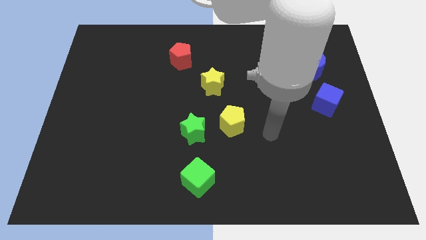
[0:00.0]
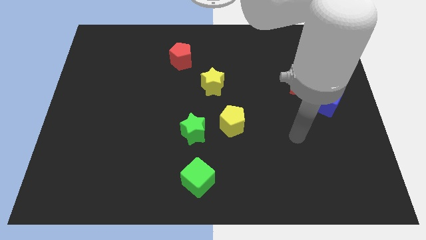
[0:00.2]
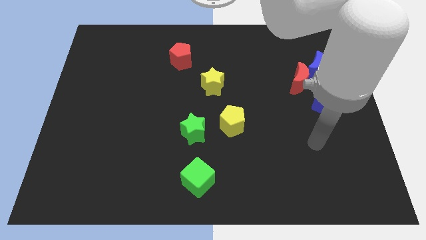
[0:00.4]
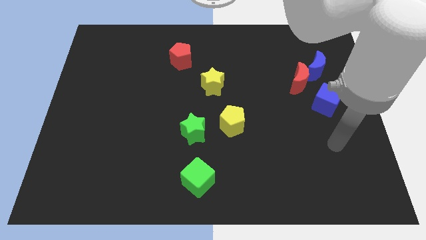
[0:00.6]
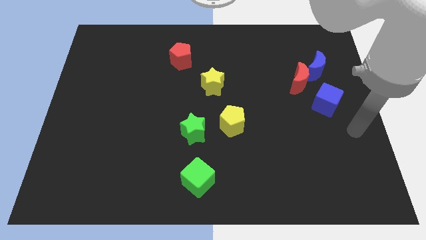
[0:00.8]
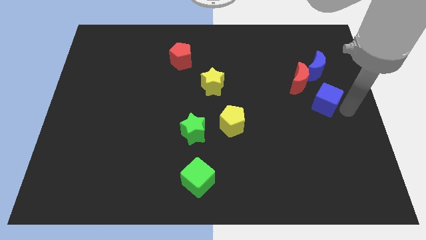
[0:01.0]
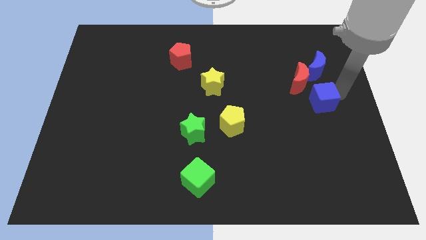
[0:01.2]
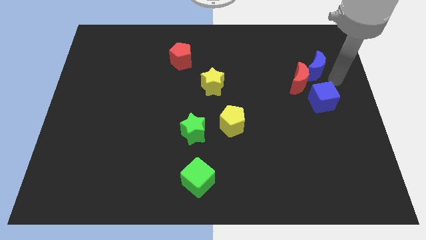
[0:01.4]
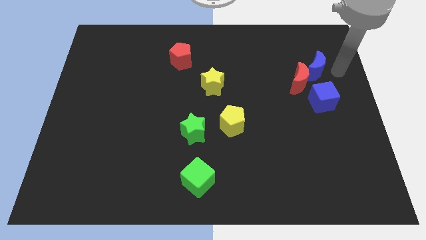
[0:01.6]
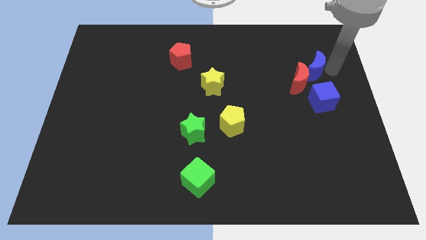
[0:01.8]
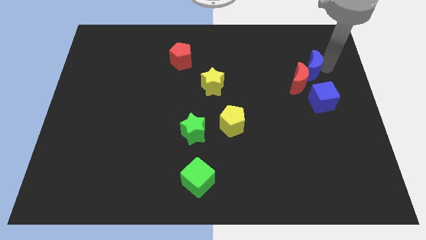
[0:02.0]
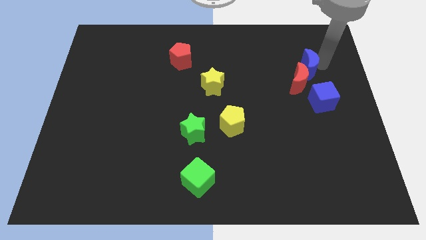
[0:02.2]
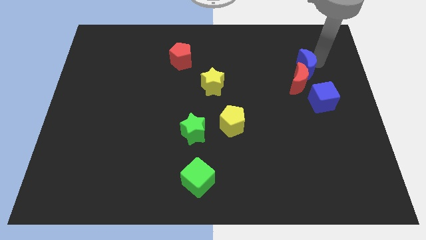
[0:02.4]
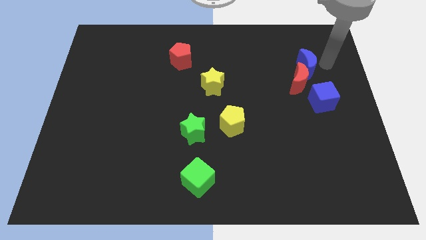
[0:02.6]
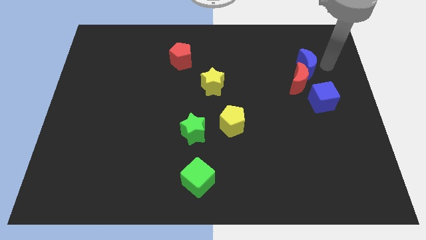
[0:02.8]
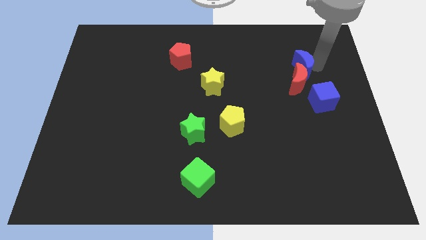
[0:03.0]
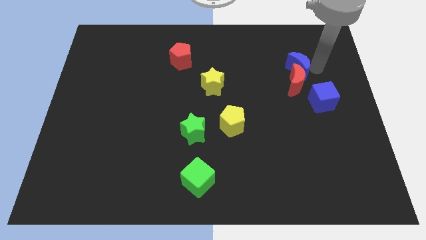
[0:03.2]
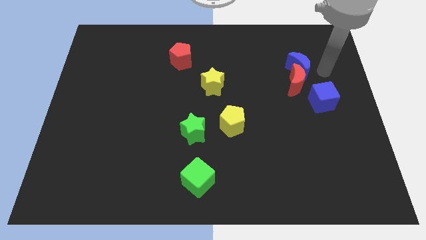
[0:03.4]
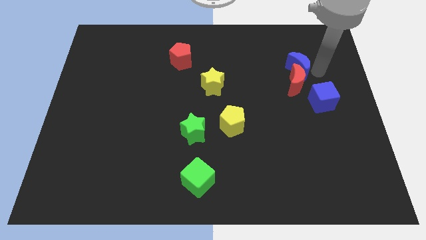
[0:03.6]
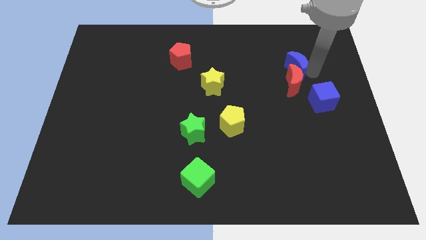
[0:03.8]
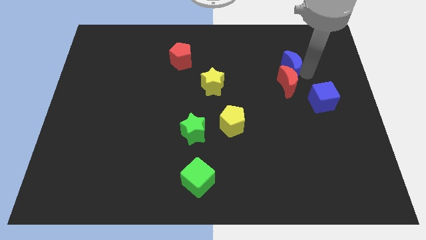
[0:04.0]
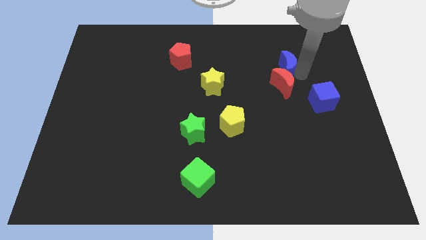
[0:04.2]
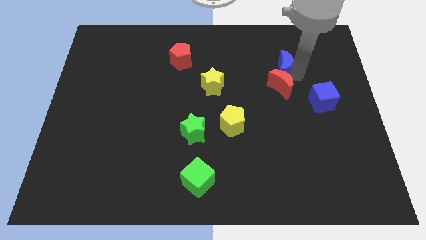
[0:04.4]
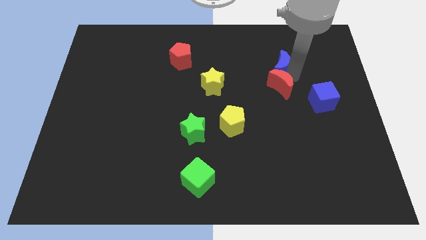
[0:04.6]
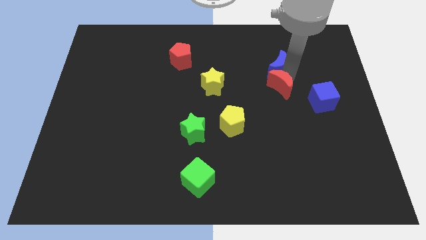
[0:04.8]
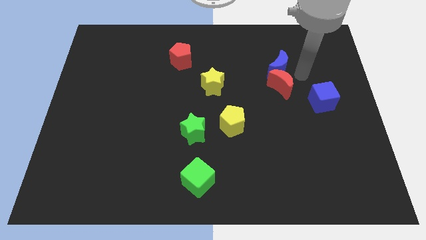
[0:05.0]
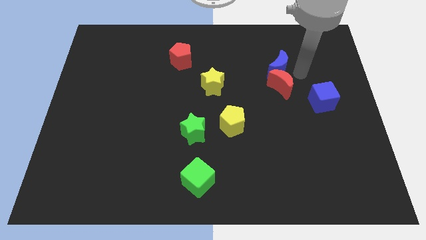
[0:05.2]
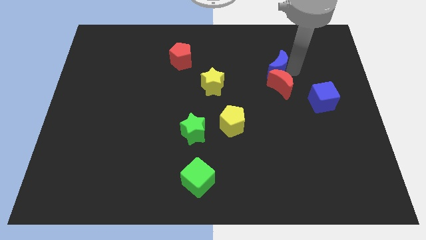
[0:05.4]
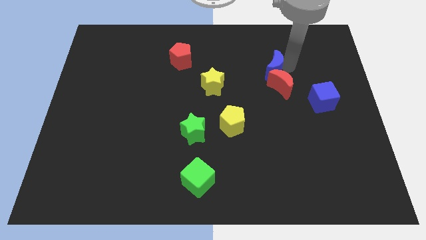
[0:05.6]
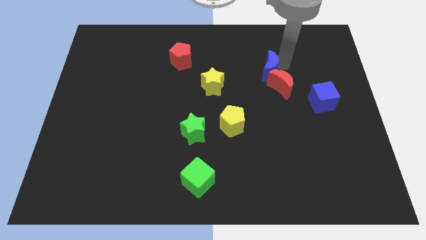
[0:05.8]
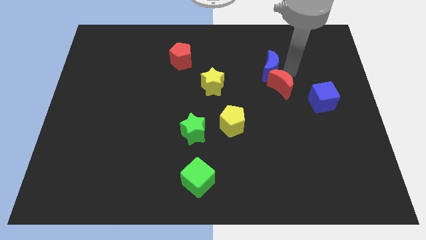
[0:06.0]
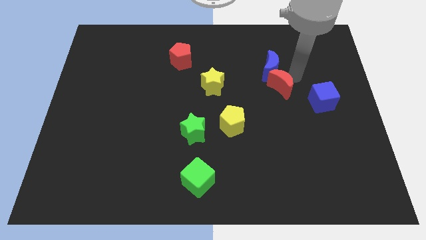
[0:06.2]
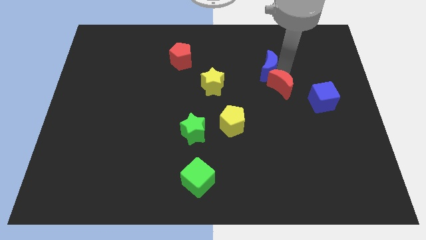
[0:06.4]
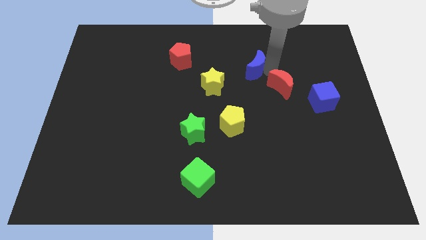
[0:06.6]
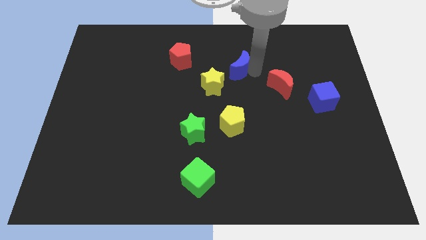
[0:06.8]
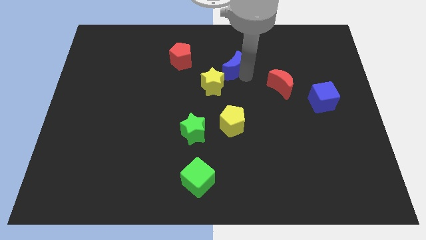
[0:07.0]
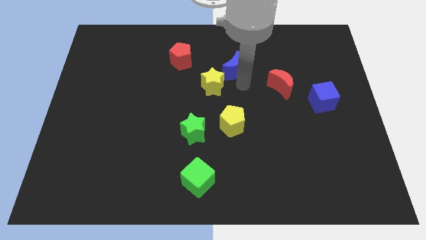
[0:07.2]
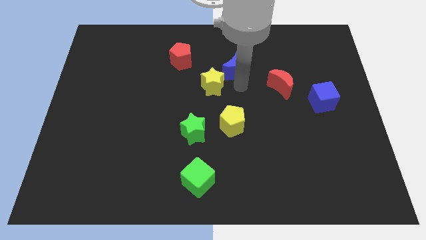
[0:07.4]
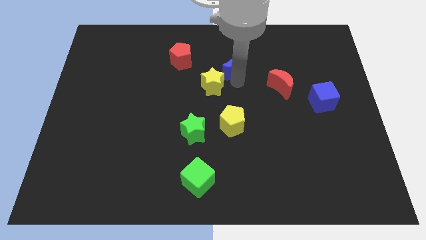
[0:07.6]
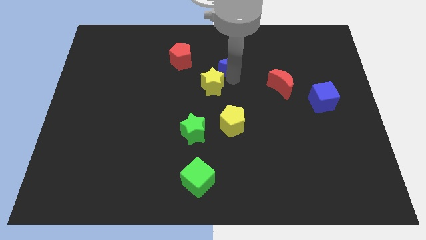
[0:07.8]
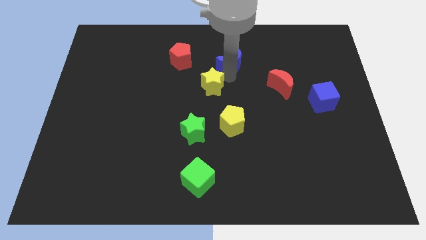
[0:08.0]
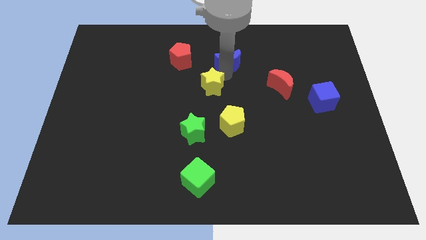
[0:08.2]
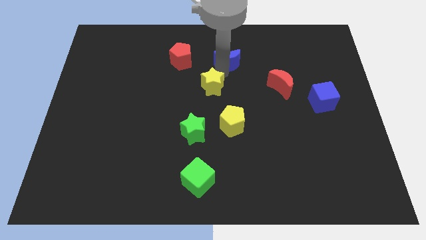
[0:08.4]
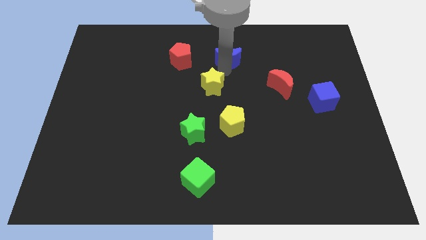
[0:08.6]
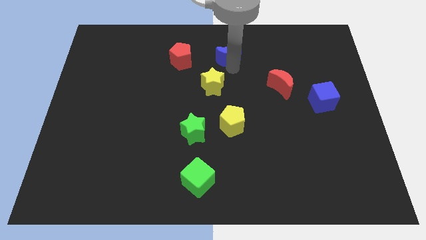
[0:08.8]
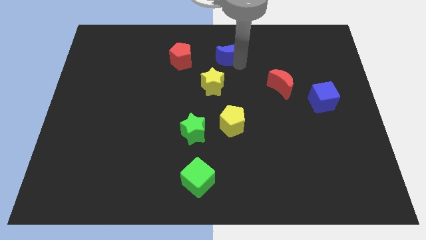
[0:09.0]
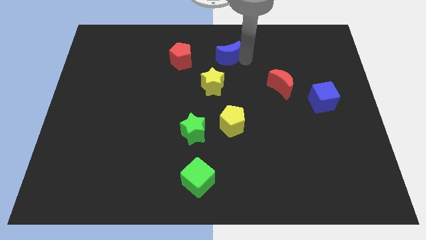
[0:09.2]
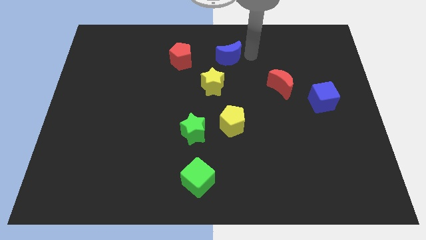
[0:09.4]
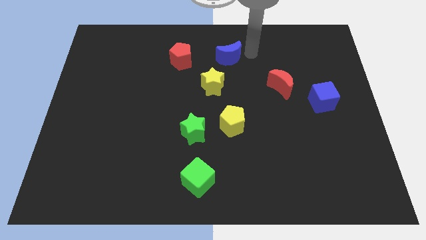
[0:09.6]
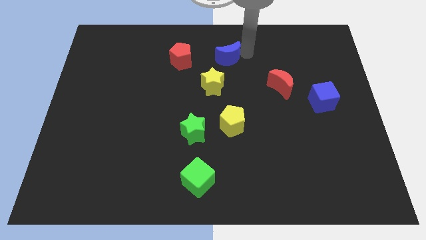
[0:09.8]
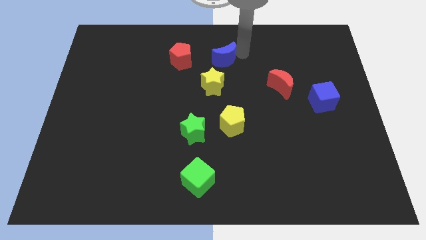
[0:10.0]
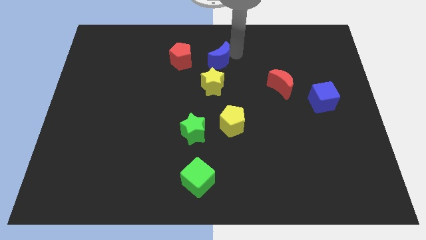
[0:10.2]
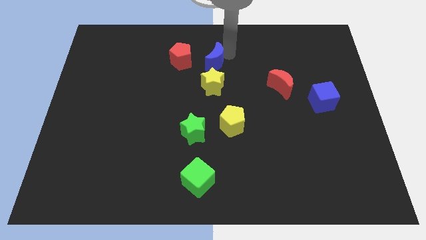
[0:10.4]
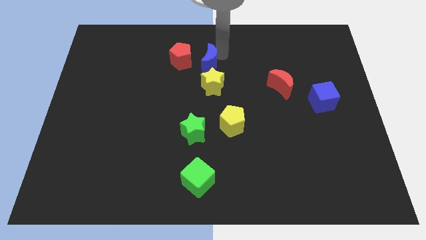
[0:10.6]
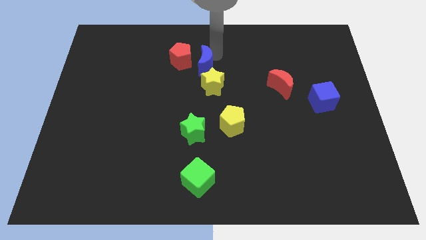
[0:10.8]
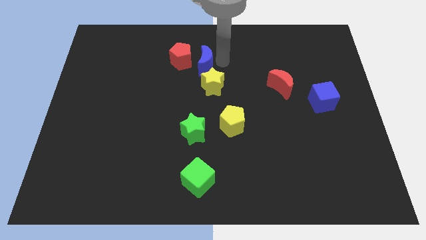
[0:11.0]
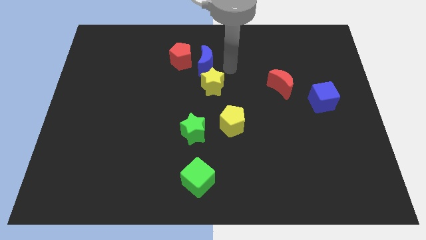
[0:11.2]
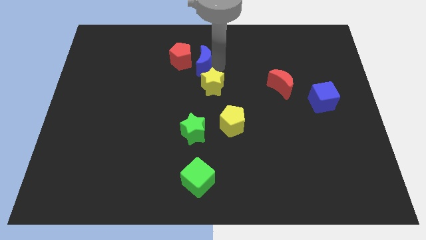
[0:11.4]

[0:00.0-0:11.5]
push the blue moon towards the red pentagon

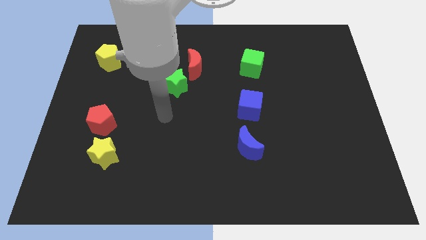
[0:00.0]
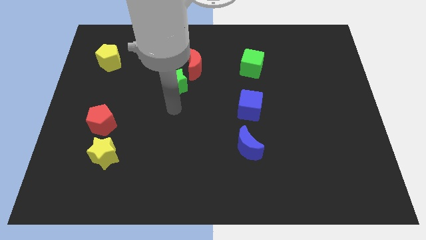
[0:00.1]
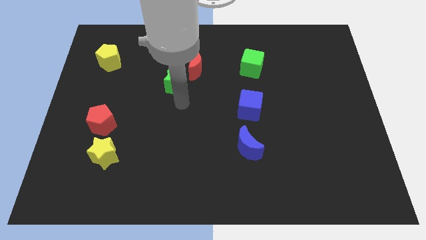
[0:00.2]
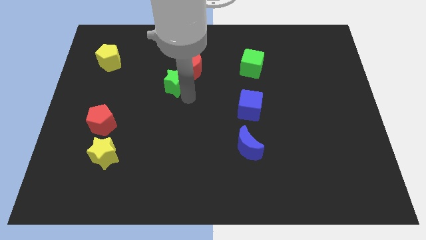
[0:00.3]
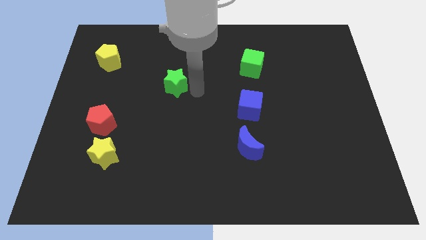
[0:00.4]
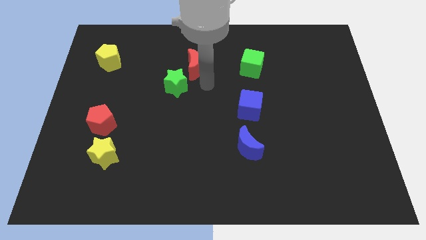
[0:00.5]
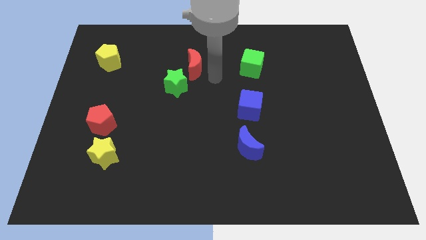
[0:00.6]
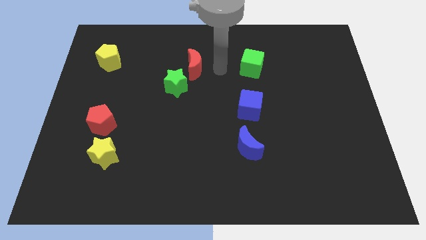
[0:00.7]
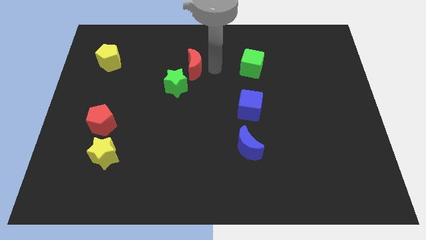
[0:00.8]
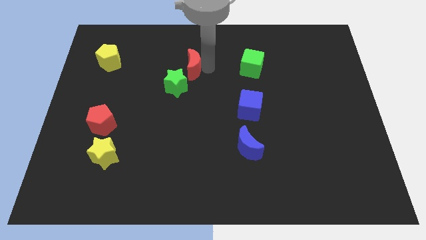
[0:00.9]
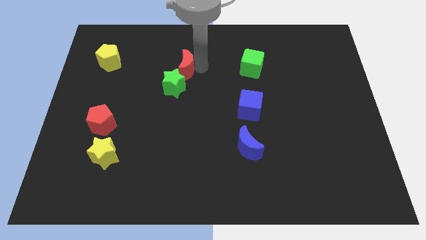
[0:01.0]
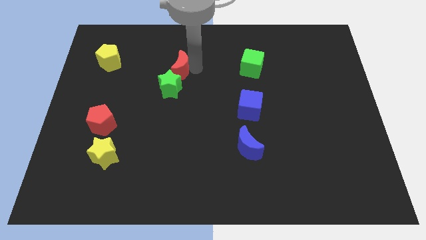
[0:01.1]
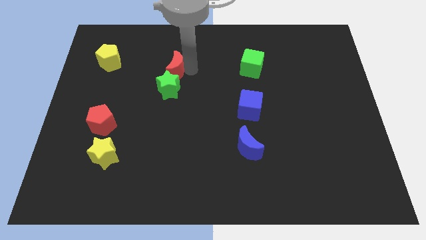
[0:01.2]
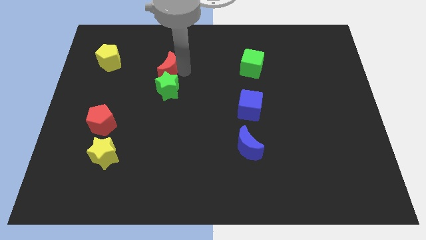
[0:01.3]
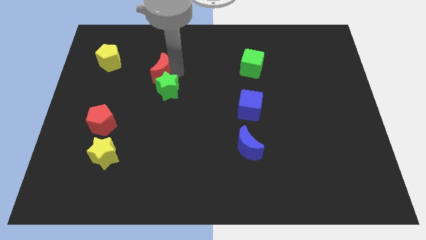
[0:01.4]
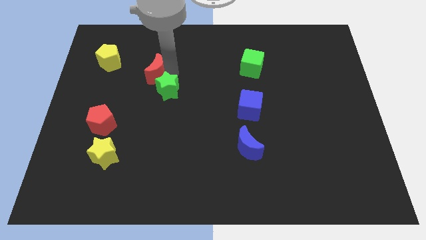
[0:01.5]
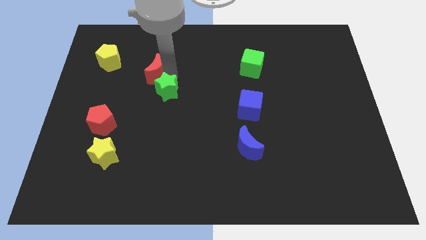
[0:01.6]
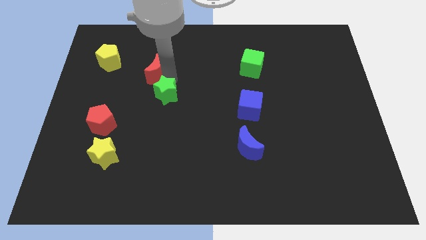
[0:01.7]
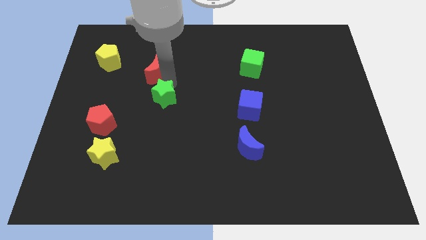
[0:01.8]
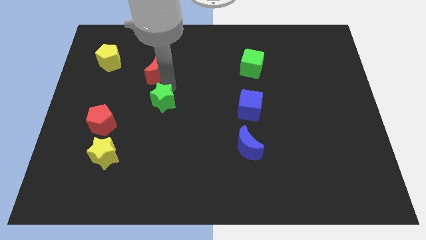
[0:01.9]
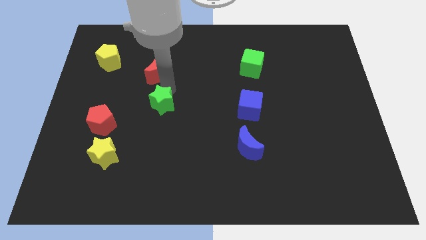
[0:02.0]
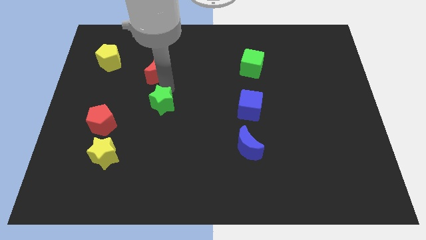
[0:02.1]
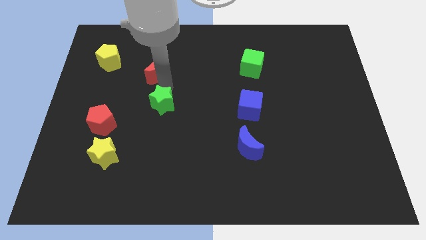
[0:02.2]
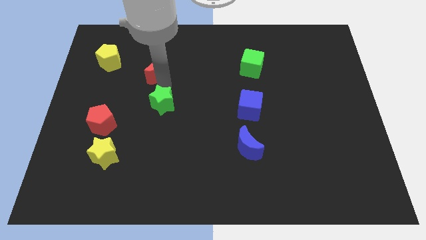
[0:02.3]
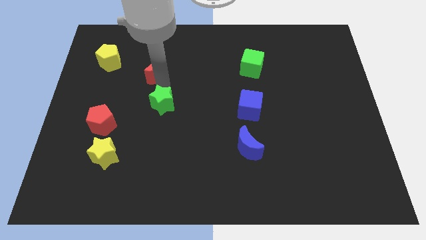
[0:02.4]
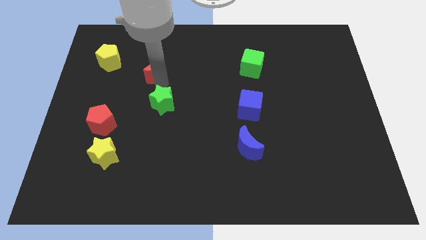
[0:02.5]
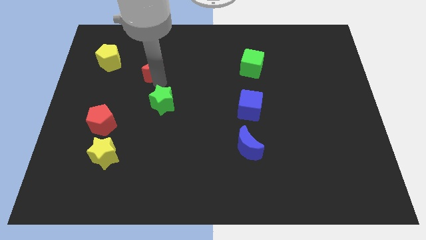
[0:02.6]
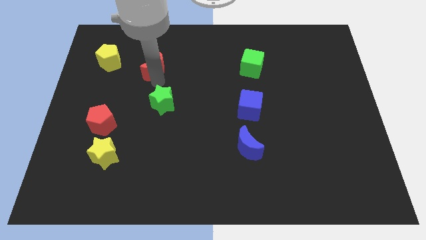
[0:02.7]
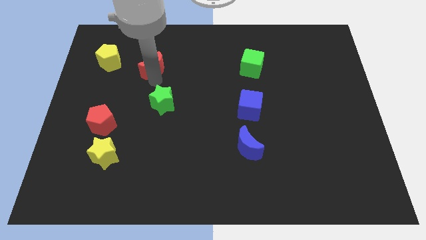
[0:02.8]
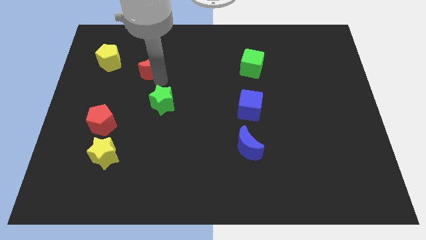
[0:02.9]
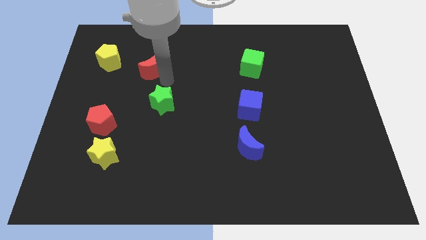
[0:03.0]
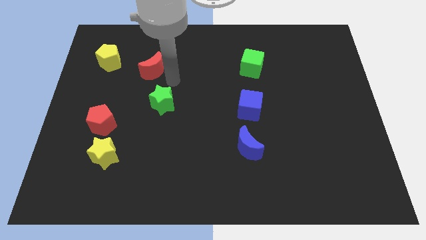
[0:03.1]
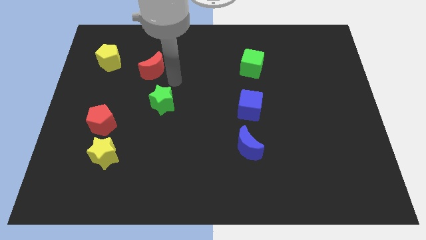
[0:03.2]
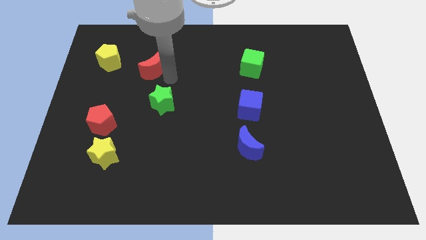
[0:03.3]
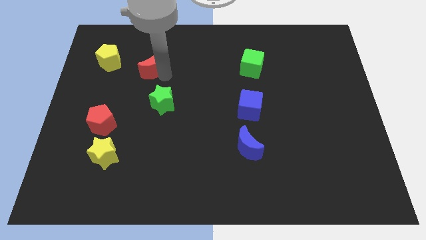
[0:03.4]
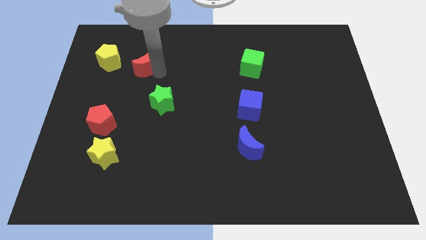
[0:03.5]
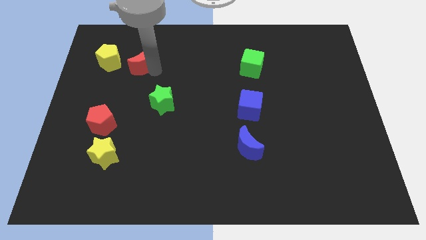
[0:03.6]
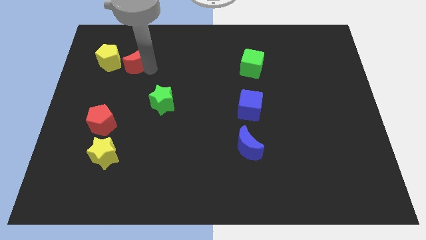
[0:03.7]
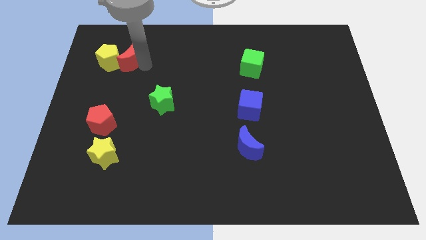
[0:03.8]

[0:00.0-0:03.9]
move the red moon close to the yellow pentagon
